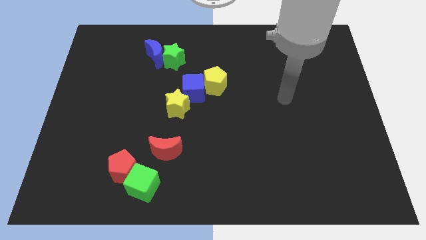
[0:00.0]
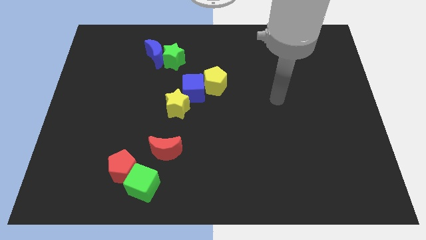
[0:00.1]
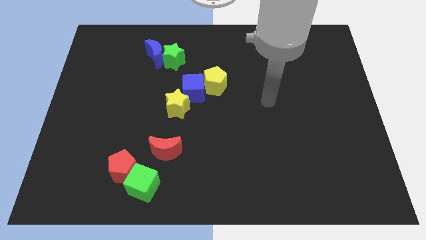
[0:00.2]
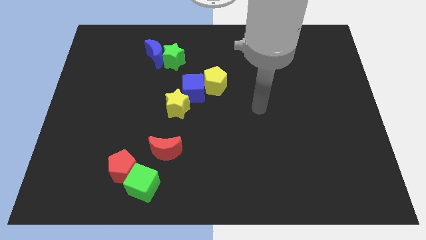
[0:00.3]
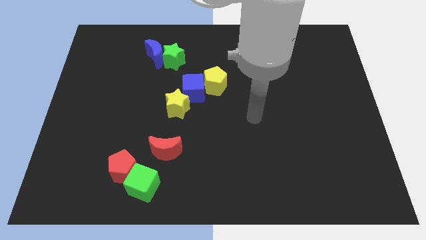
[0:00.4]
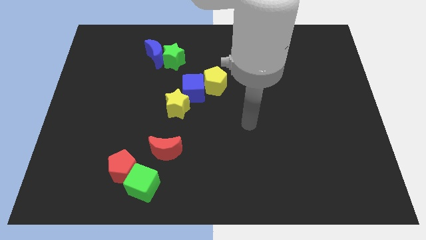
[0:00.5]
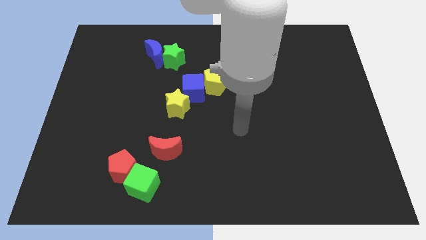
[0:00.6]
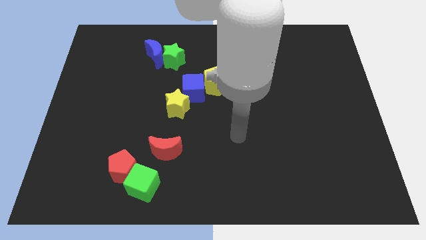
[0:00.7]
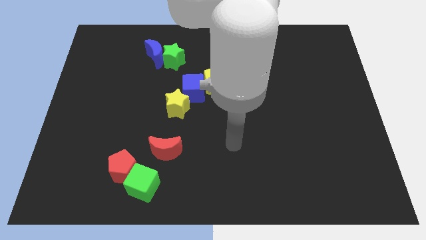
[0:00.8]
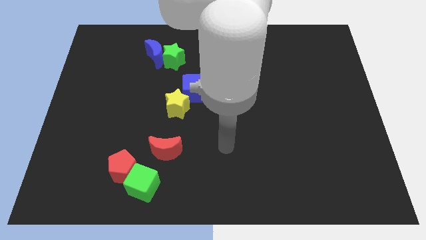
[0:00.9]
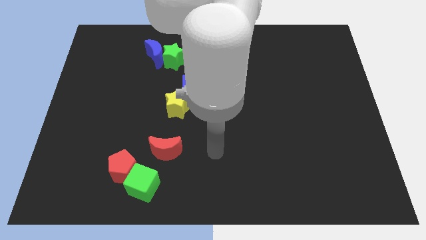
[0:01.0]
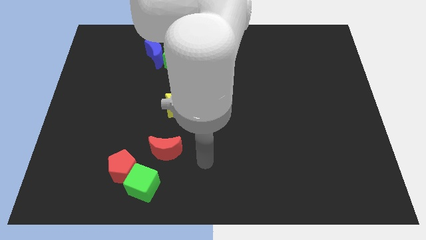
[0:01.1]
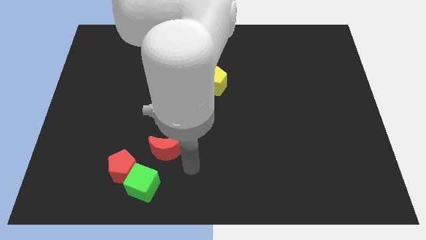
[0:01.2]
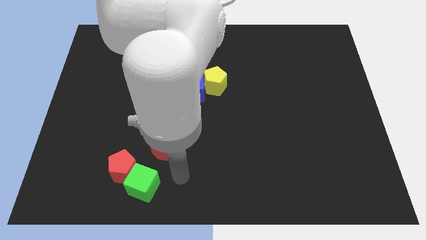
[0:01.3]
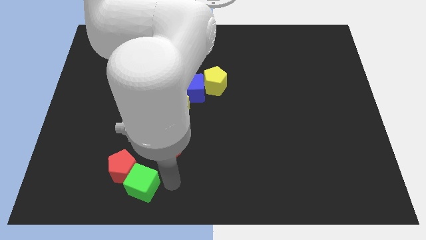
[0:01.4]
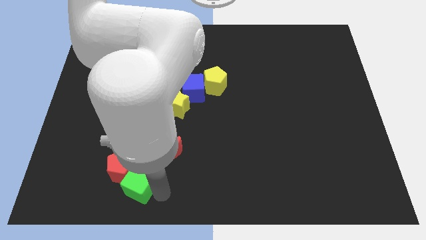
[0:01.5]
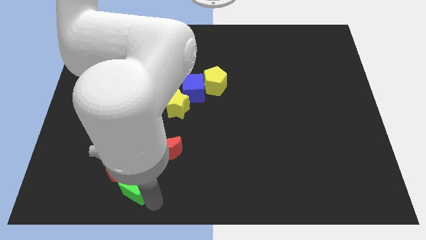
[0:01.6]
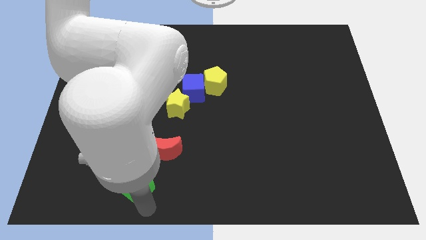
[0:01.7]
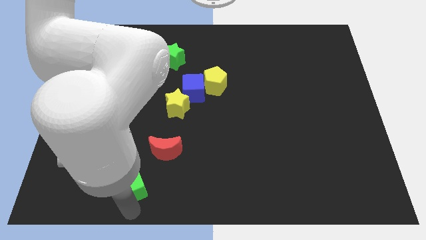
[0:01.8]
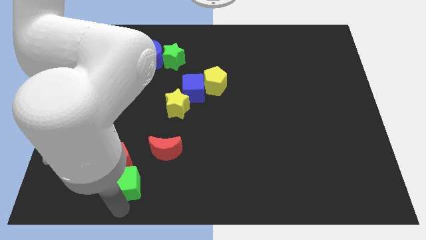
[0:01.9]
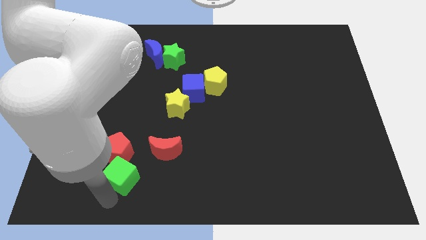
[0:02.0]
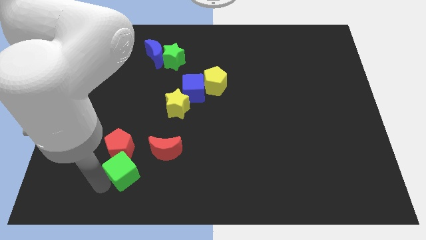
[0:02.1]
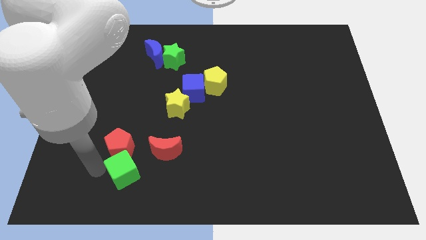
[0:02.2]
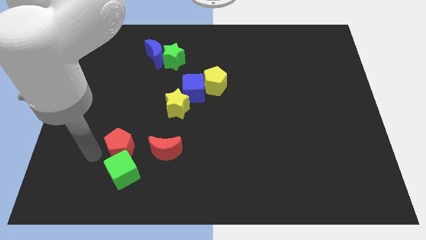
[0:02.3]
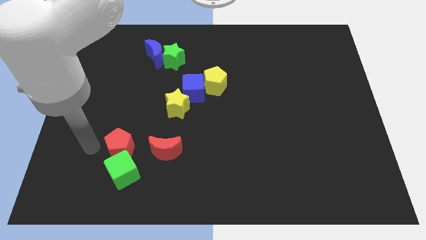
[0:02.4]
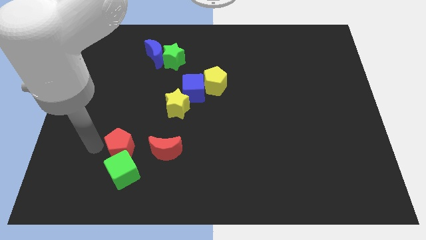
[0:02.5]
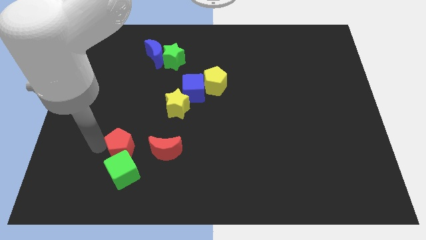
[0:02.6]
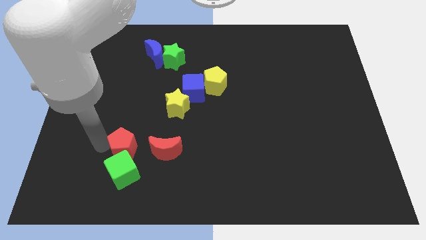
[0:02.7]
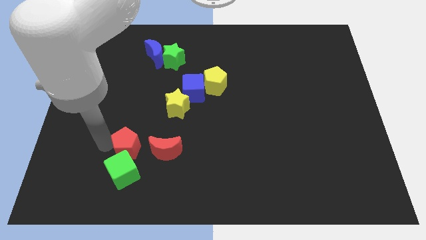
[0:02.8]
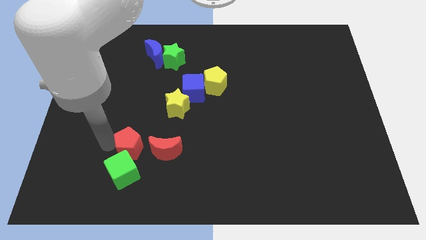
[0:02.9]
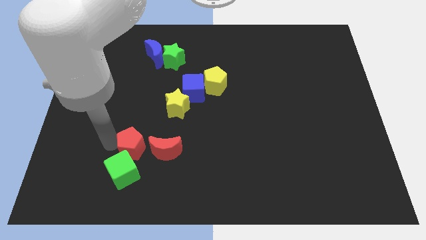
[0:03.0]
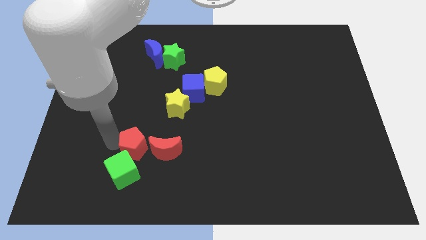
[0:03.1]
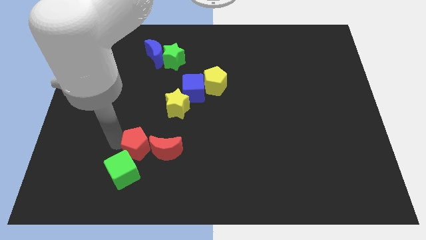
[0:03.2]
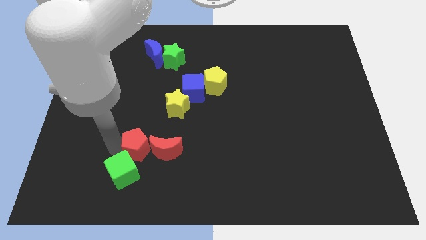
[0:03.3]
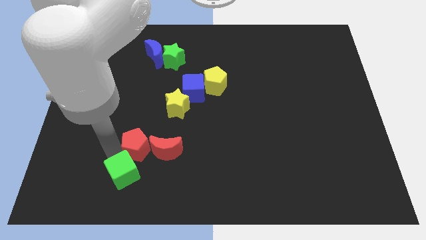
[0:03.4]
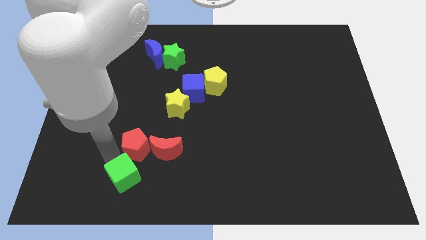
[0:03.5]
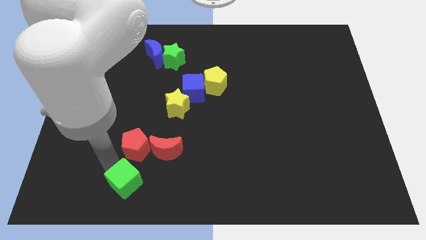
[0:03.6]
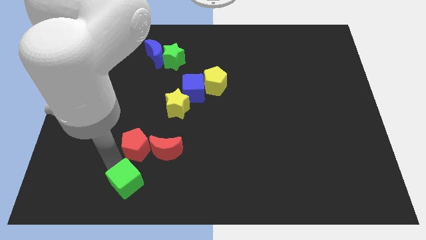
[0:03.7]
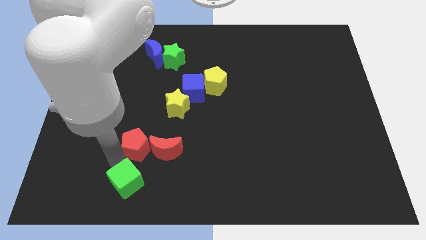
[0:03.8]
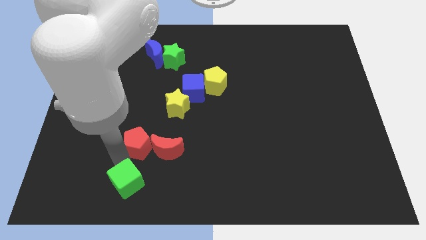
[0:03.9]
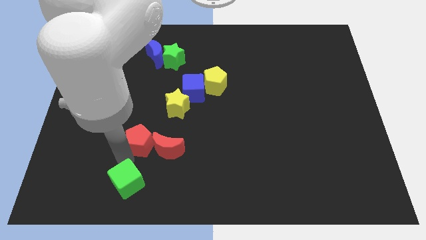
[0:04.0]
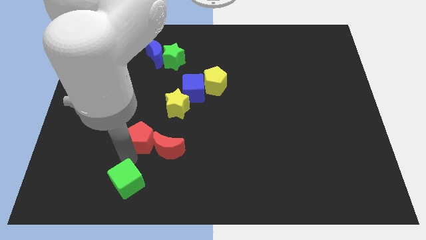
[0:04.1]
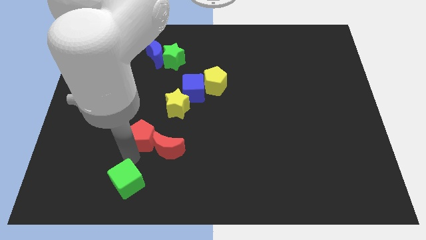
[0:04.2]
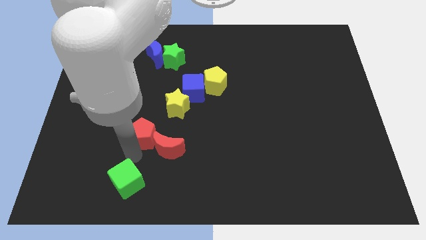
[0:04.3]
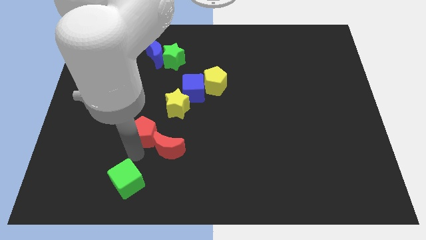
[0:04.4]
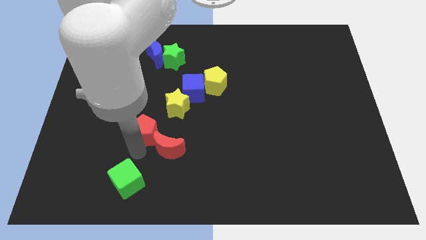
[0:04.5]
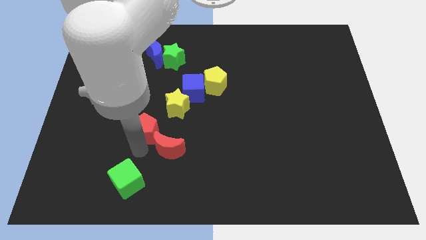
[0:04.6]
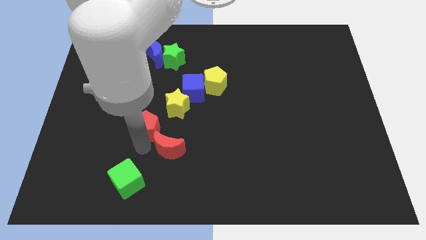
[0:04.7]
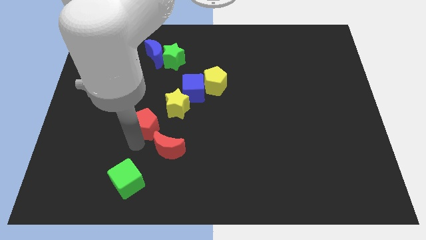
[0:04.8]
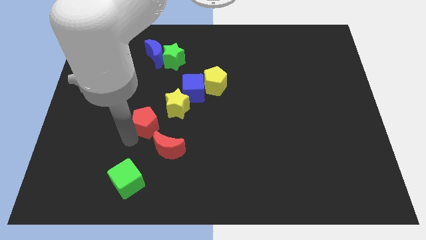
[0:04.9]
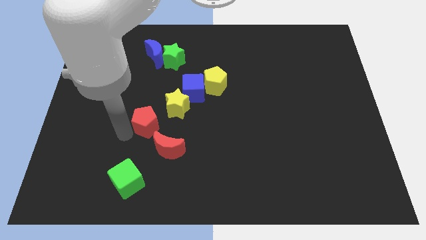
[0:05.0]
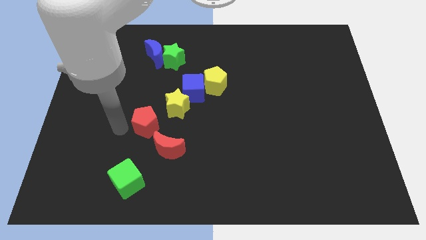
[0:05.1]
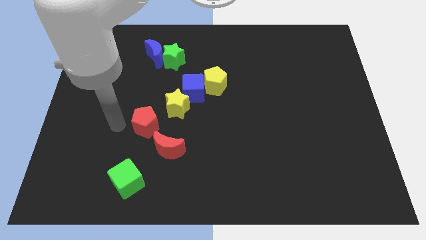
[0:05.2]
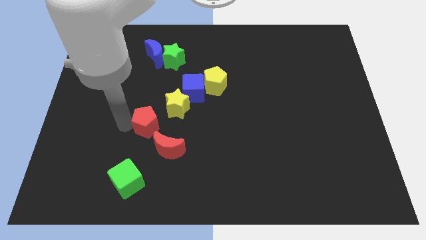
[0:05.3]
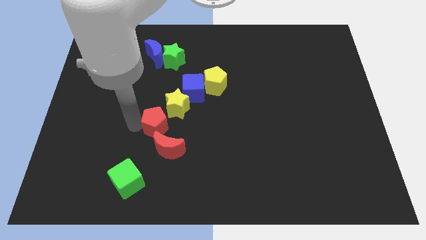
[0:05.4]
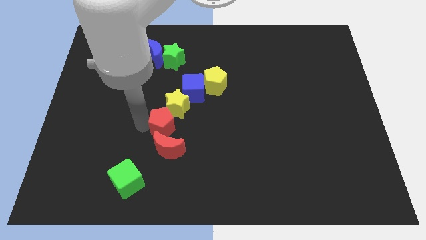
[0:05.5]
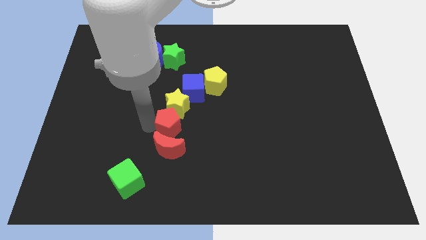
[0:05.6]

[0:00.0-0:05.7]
move the red pentagon to the bottom right of the yellow star

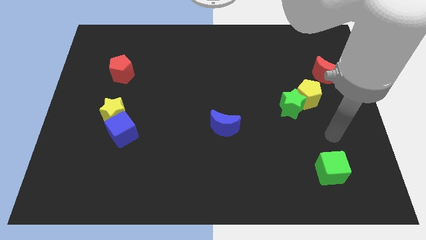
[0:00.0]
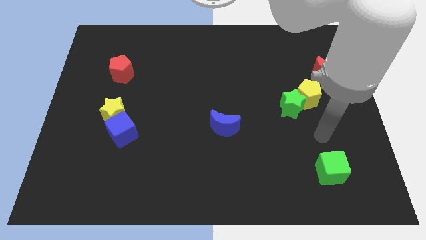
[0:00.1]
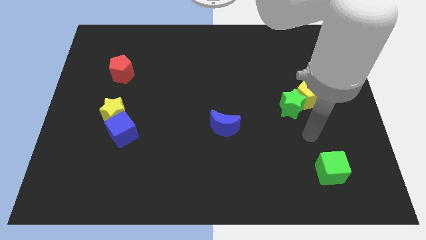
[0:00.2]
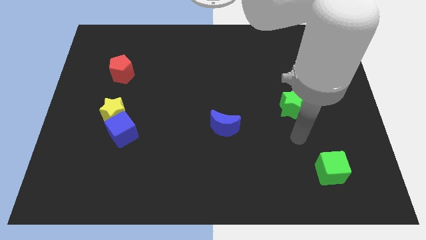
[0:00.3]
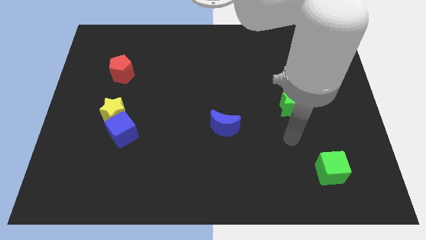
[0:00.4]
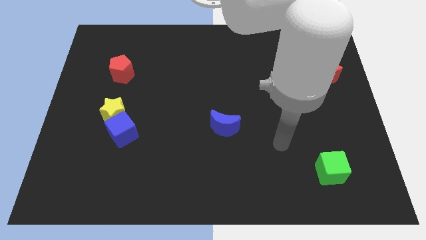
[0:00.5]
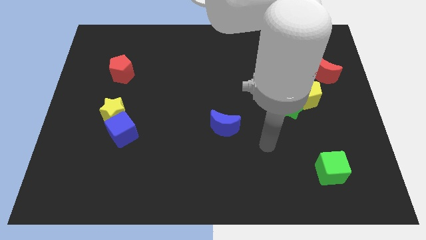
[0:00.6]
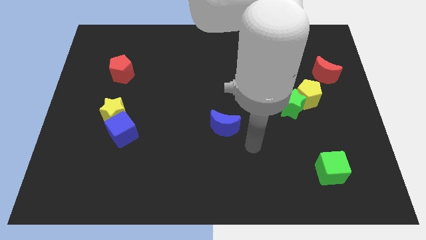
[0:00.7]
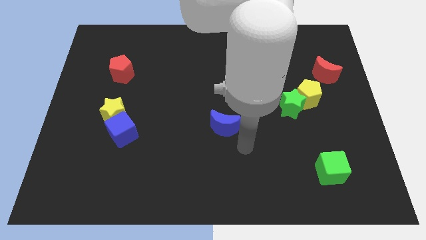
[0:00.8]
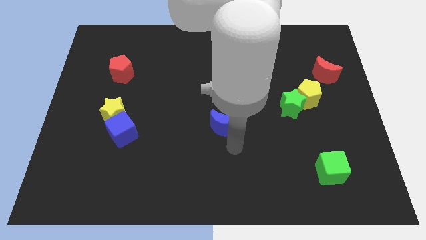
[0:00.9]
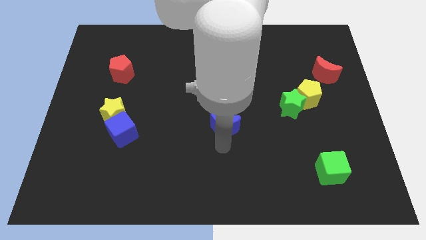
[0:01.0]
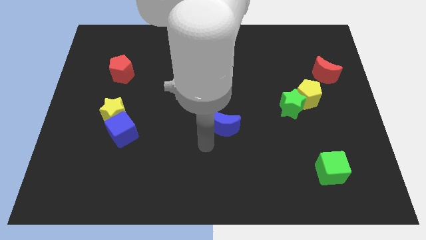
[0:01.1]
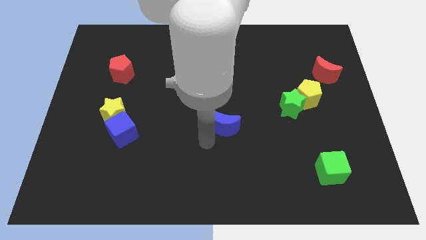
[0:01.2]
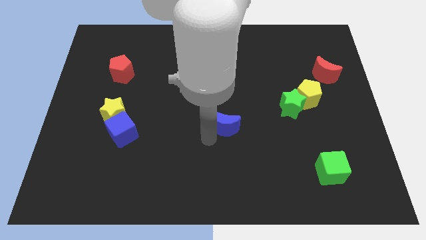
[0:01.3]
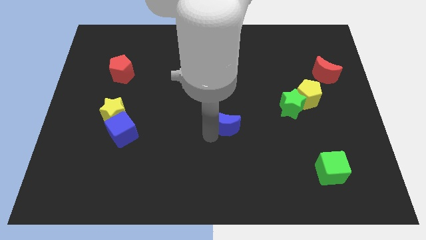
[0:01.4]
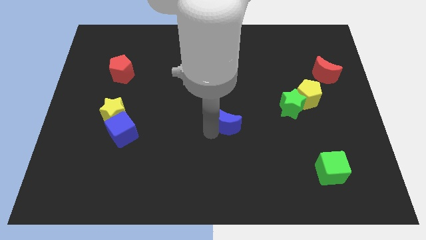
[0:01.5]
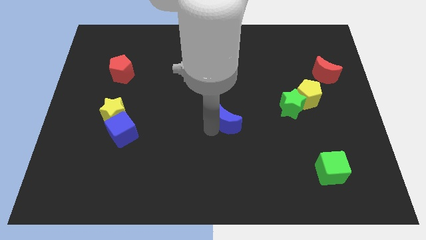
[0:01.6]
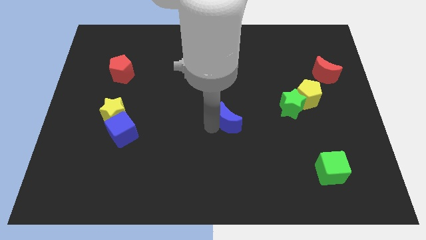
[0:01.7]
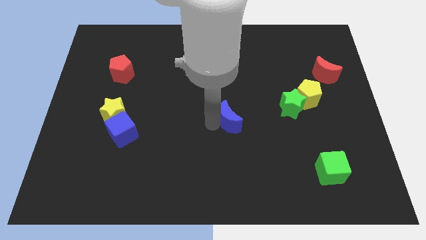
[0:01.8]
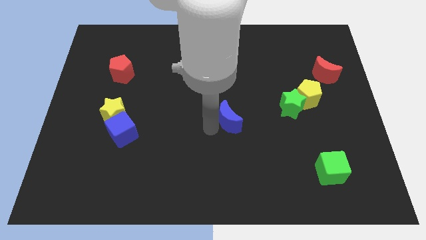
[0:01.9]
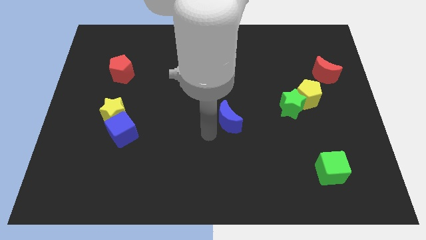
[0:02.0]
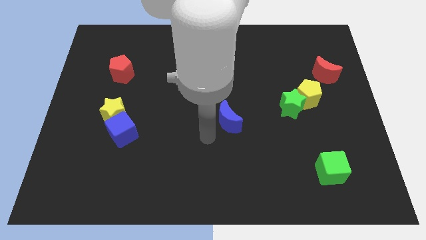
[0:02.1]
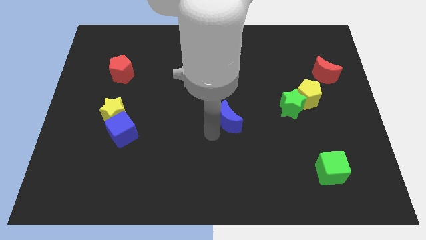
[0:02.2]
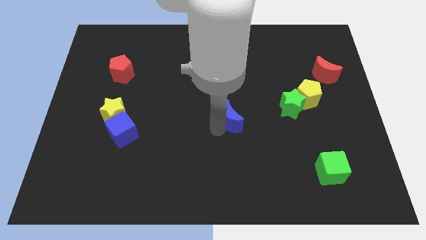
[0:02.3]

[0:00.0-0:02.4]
push the blue moon just left of the green star
